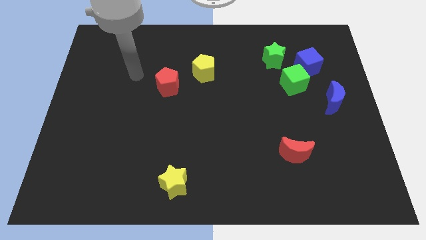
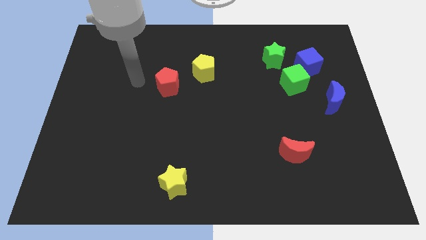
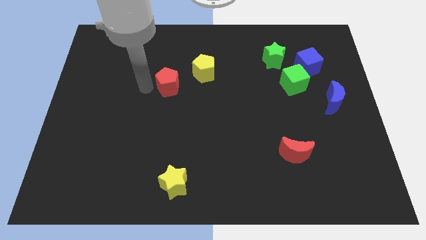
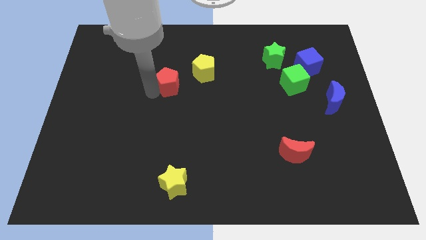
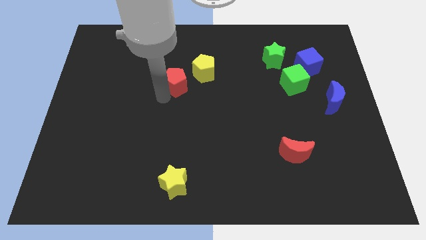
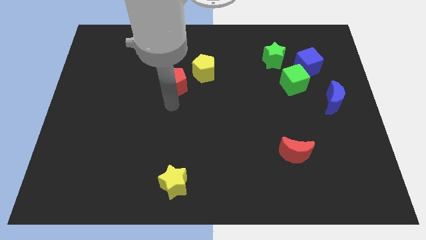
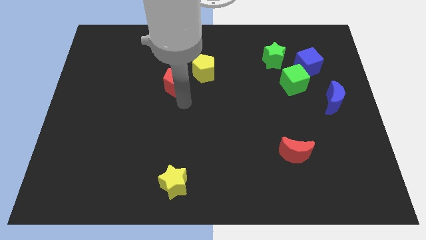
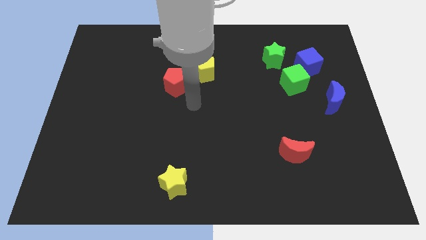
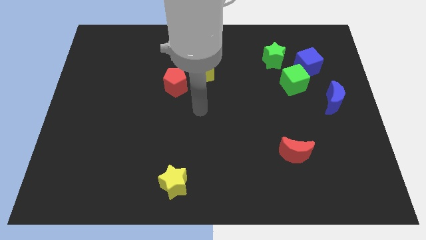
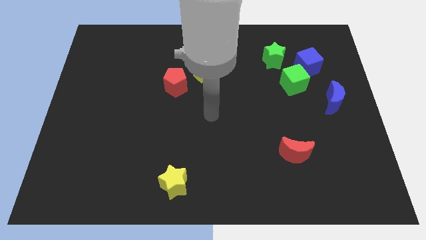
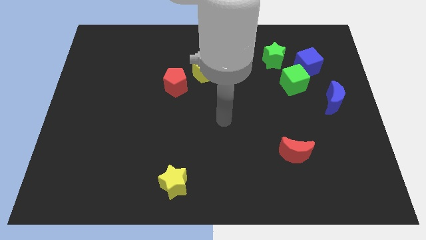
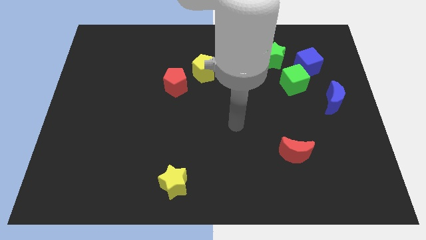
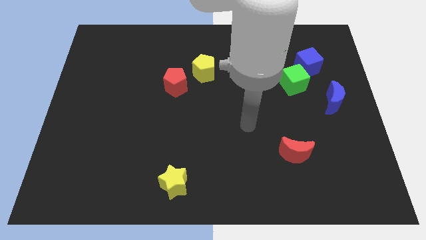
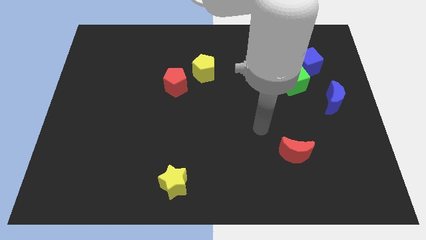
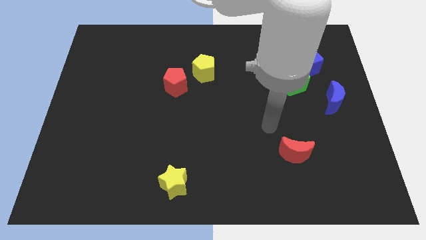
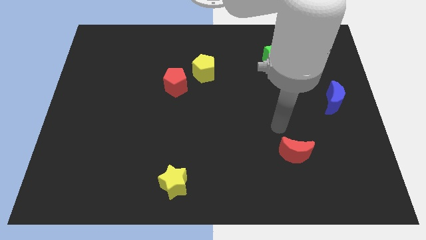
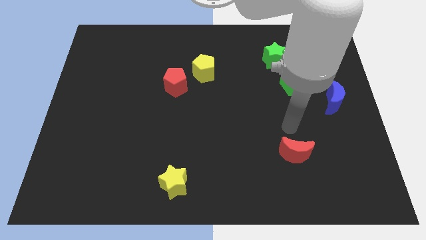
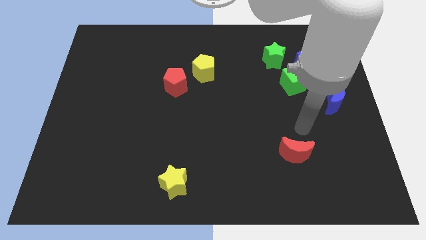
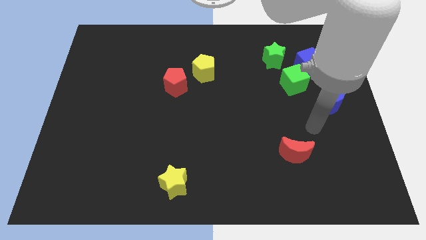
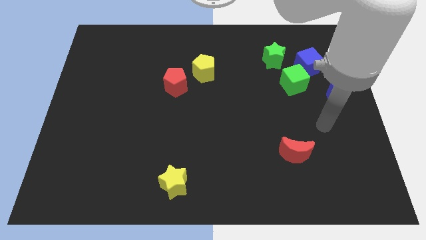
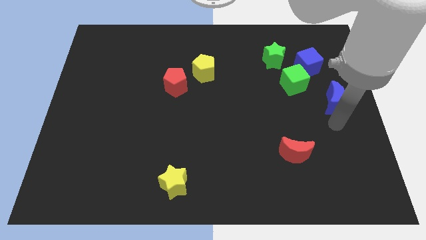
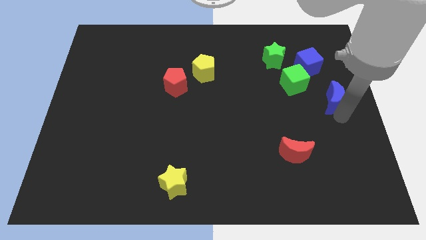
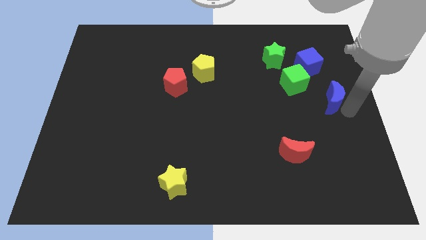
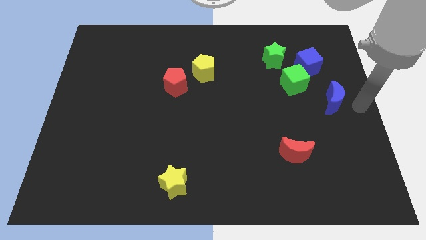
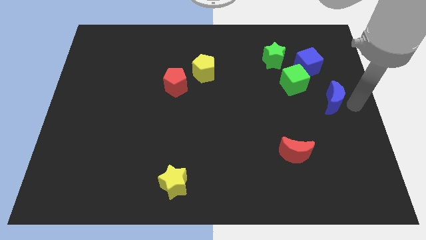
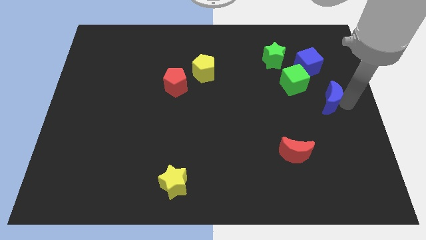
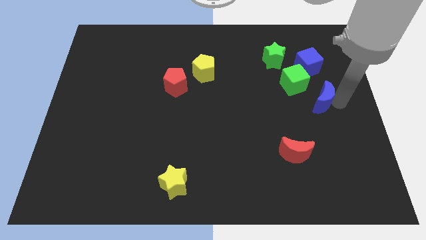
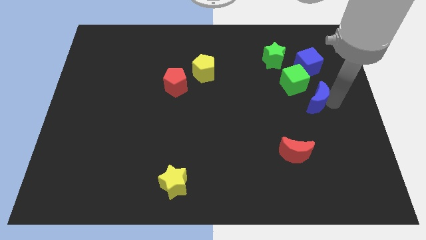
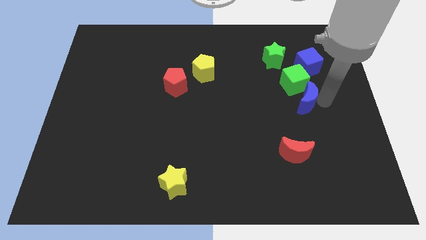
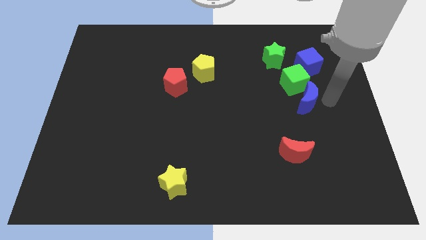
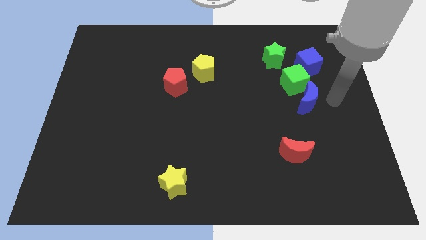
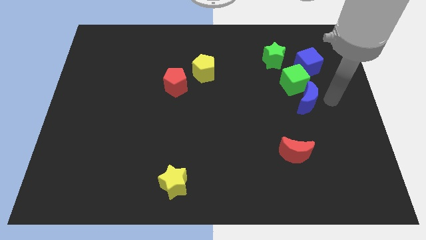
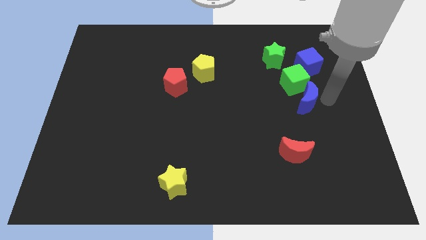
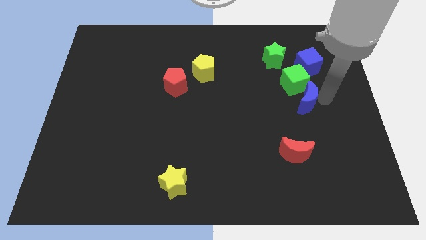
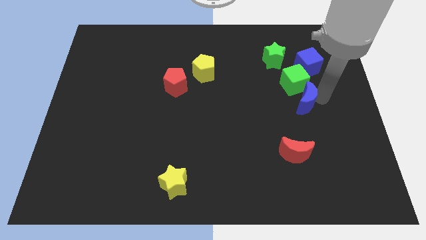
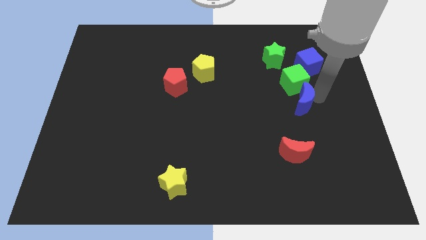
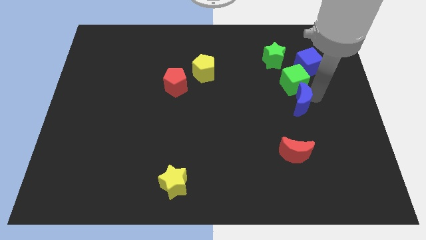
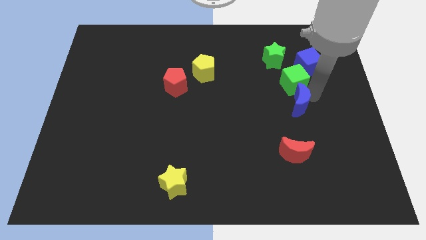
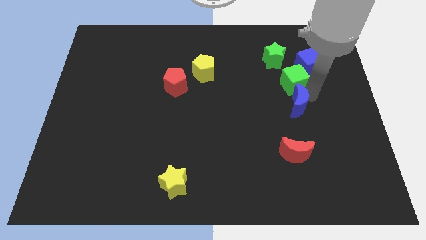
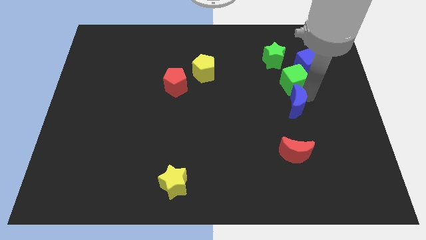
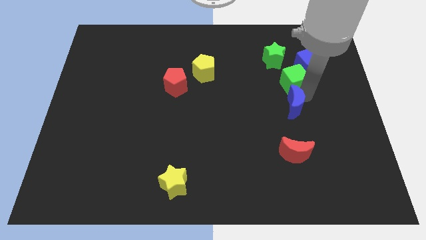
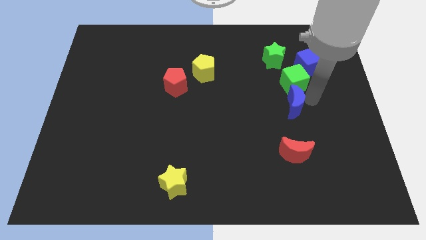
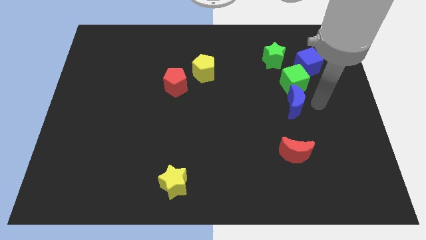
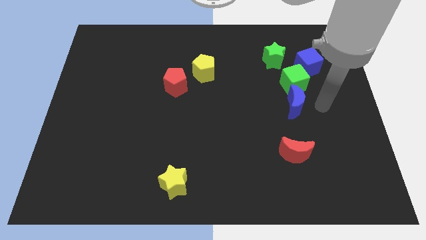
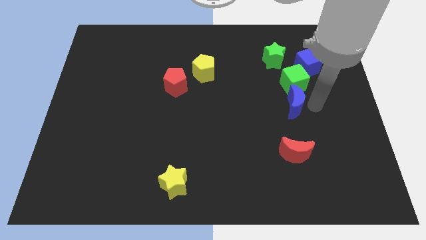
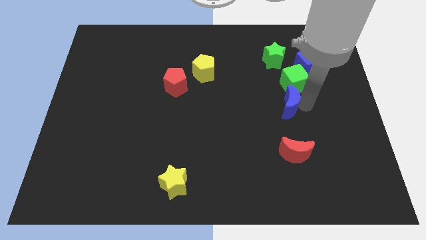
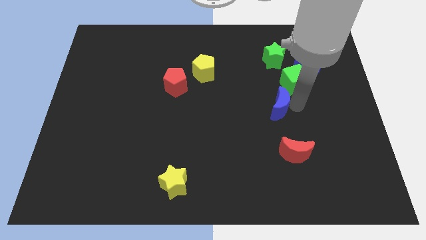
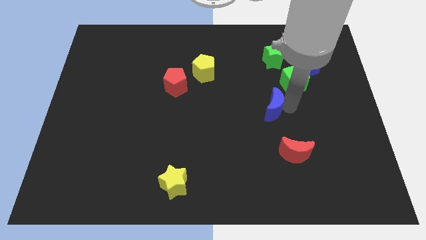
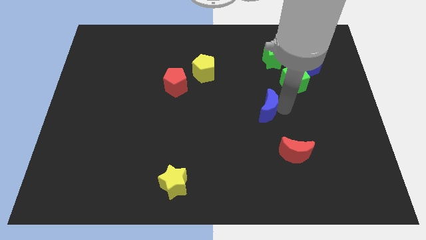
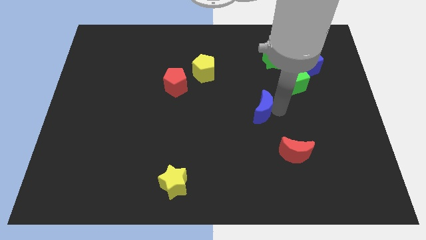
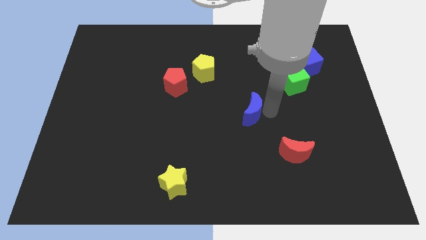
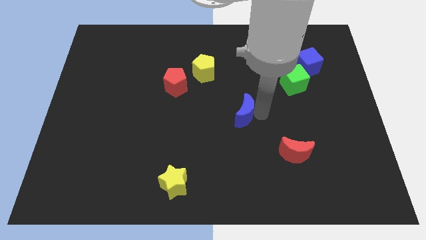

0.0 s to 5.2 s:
slide the blue moon left

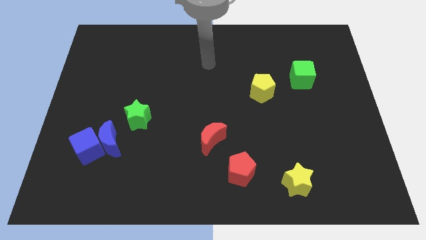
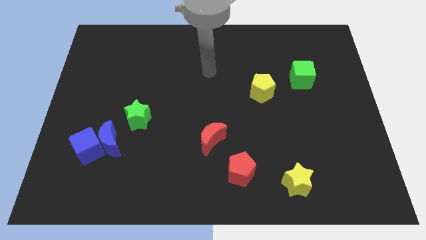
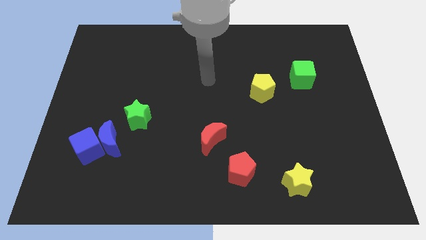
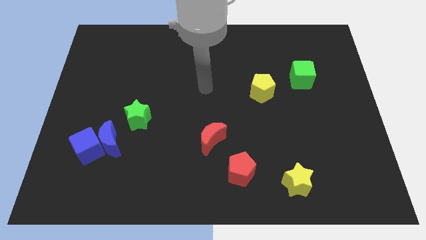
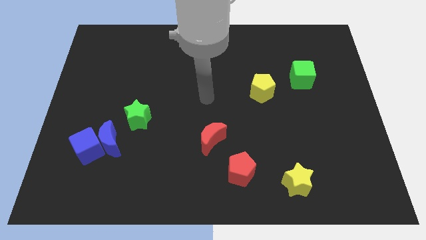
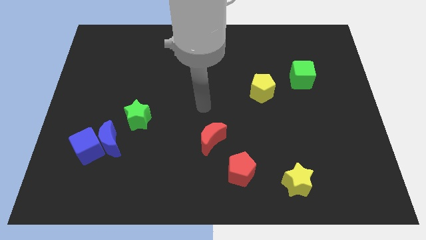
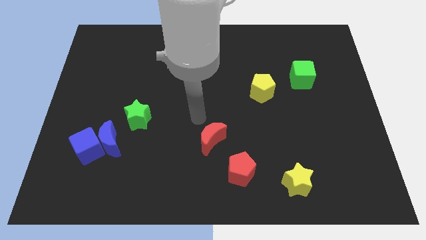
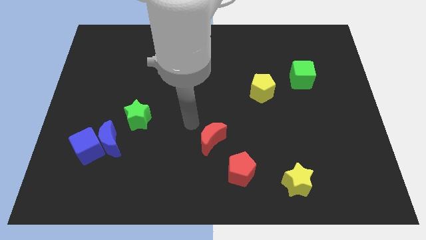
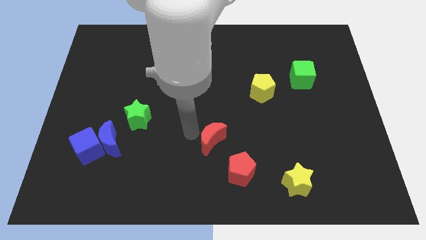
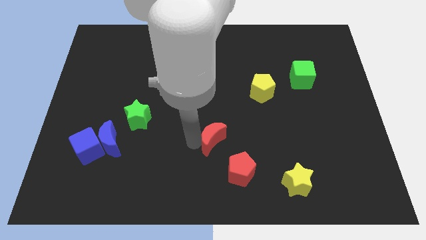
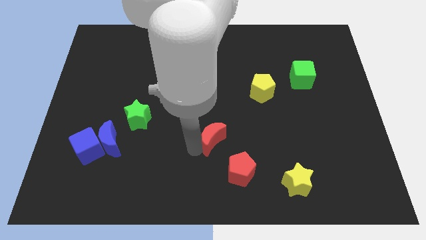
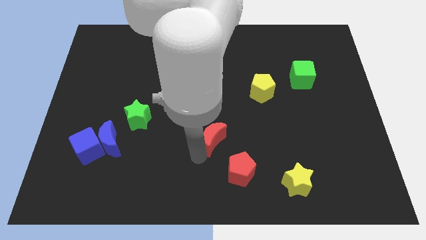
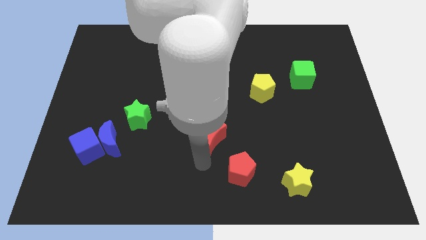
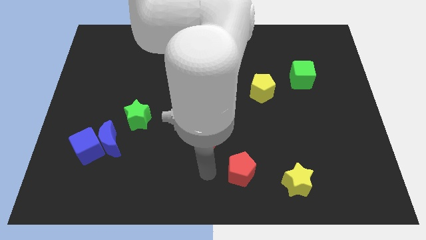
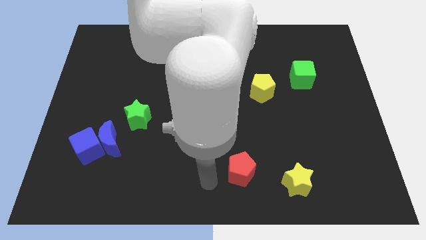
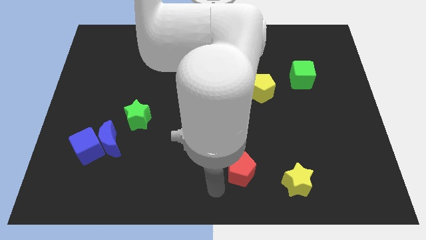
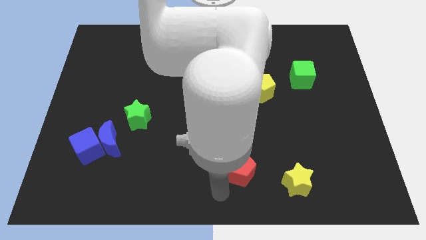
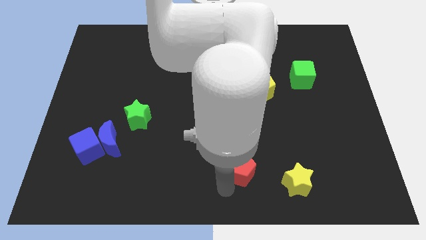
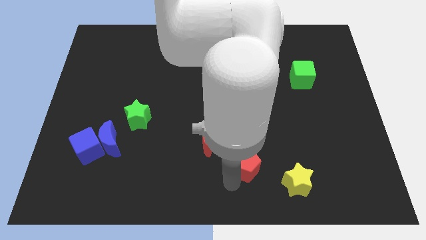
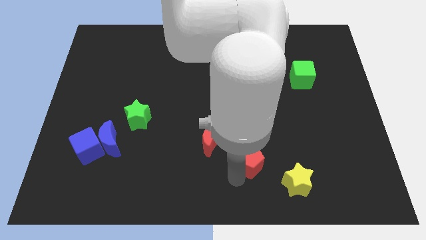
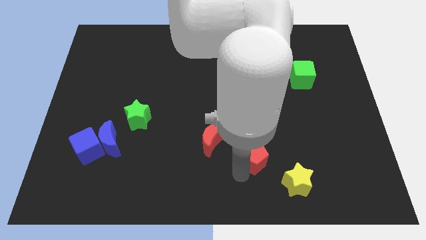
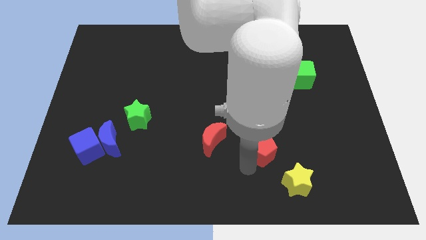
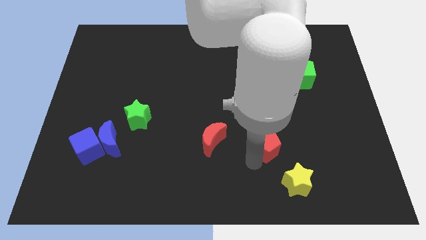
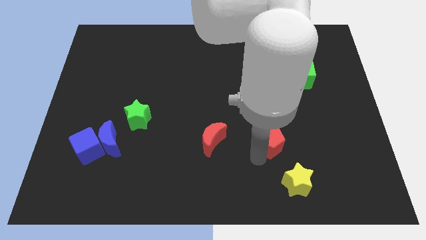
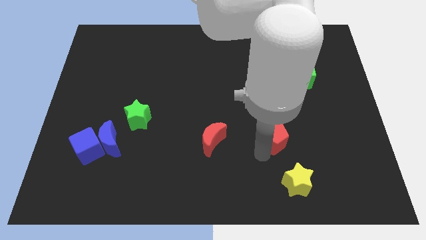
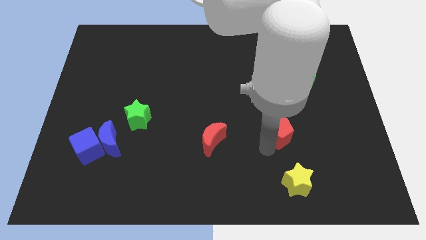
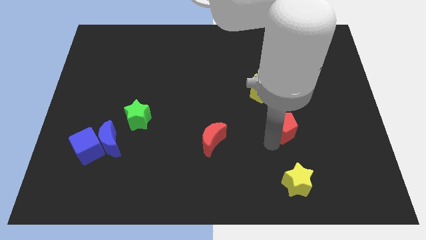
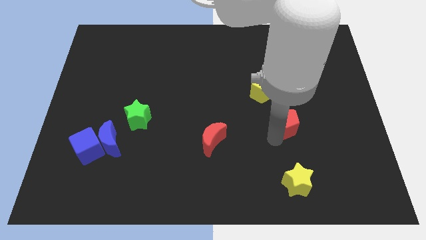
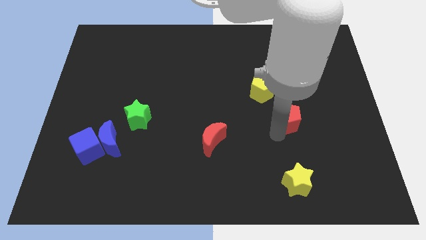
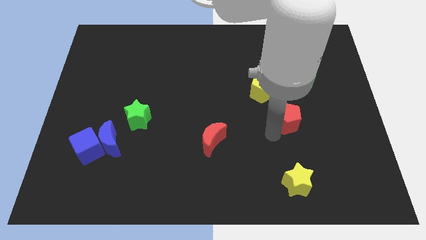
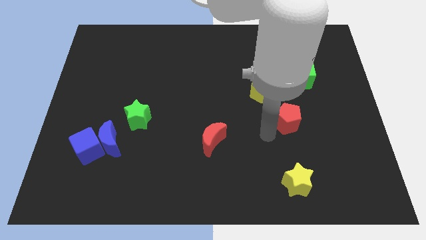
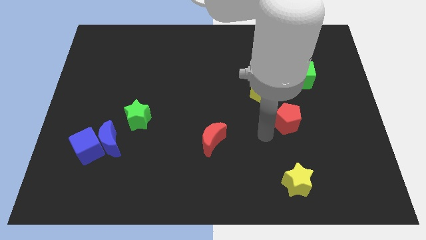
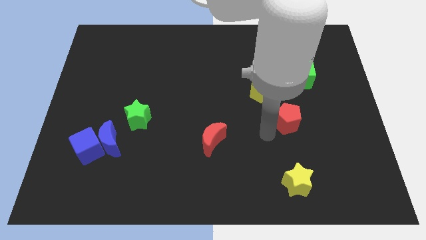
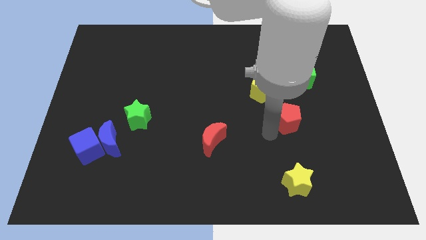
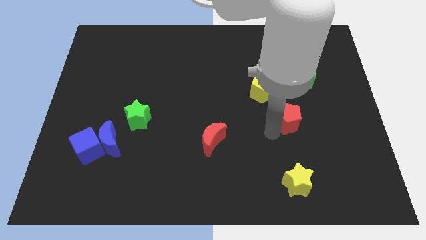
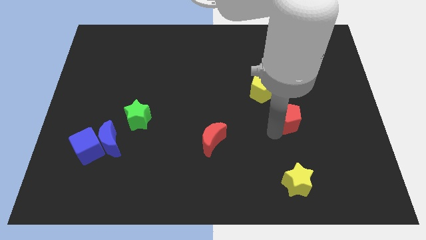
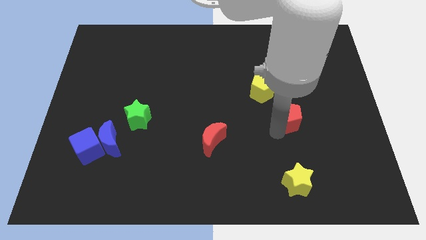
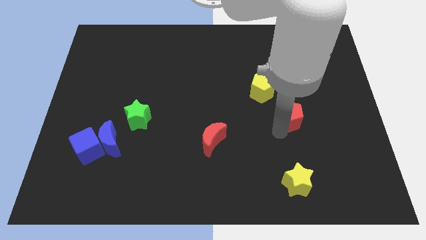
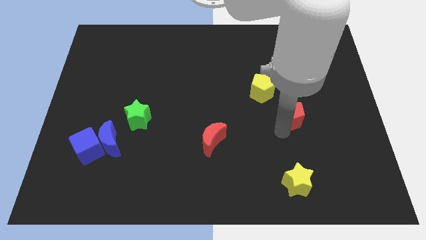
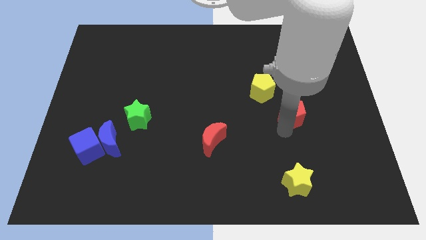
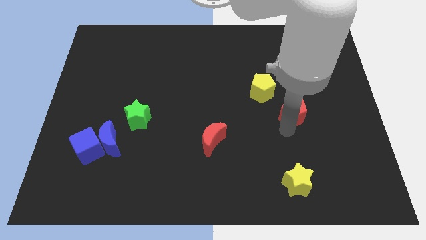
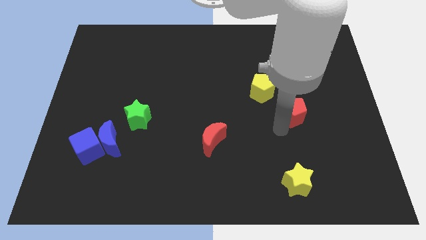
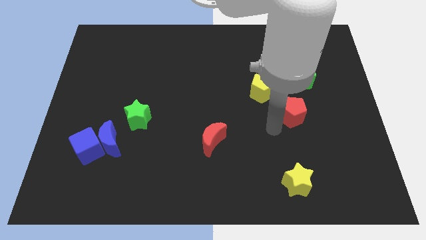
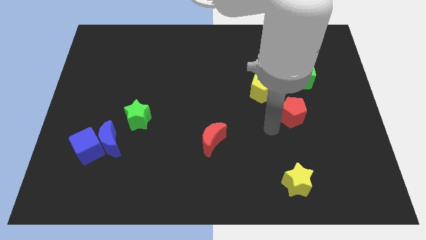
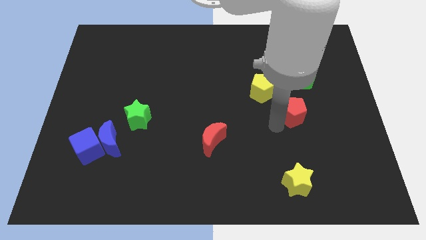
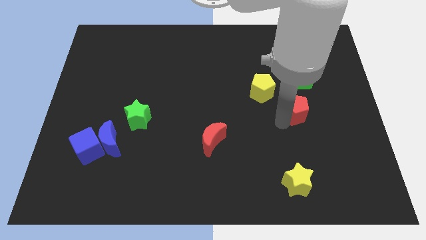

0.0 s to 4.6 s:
slide the red pentagon up and right
